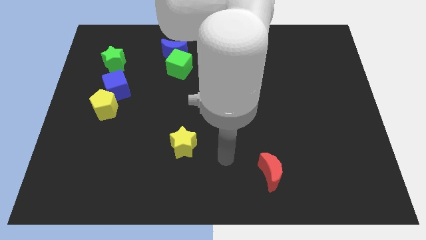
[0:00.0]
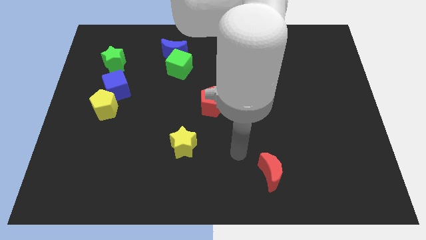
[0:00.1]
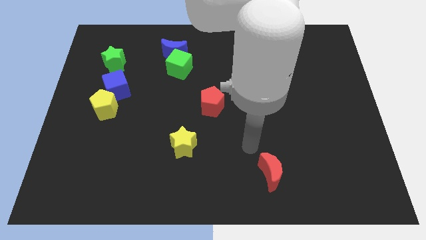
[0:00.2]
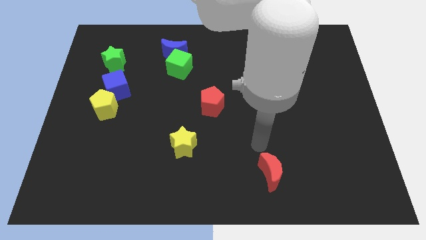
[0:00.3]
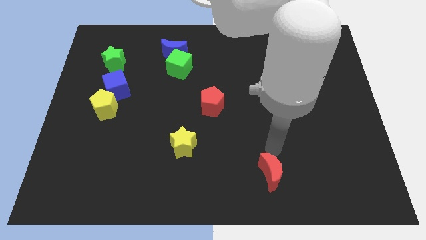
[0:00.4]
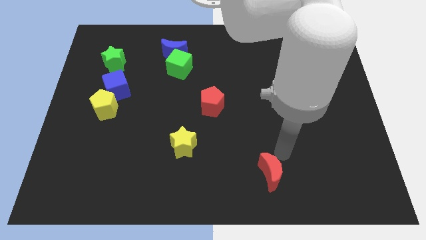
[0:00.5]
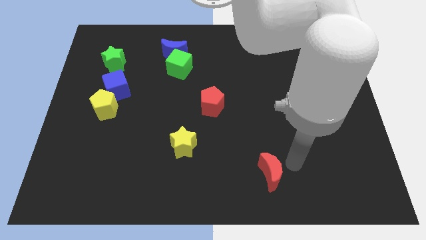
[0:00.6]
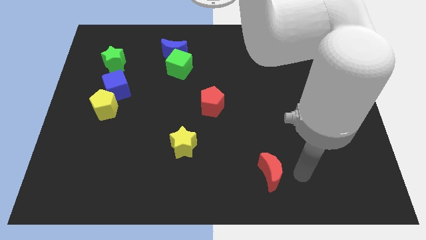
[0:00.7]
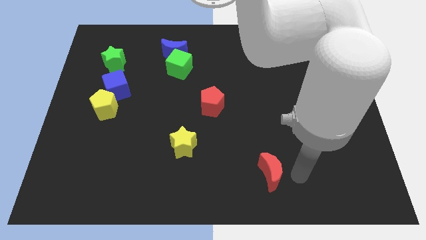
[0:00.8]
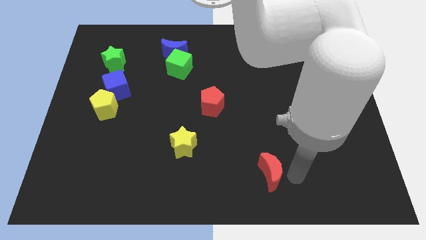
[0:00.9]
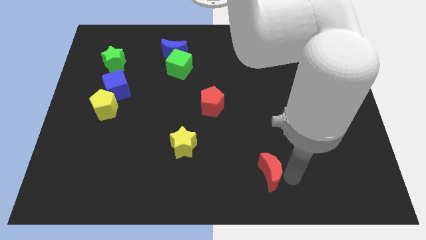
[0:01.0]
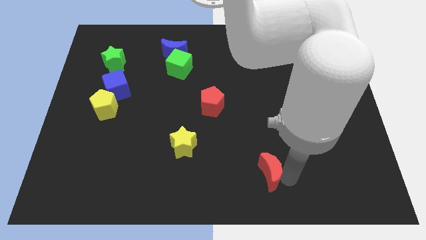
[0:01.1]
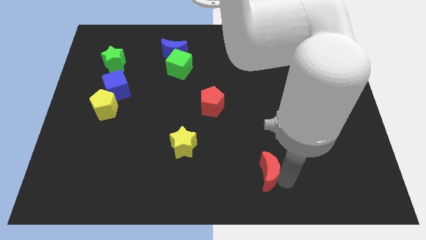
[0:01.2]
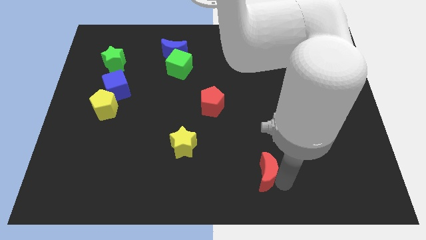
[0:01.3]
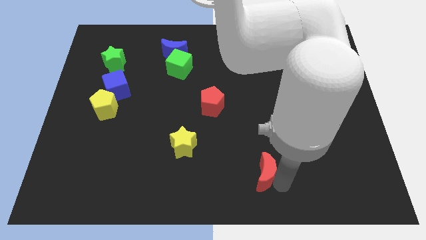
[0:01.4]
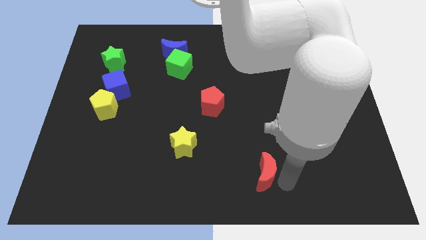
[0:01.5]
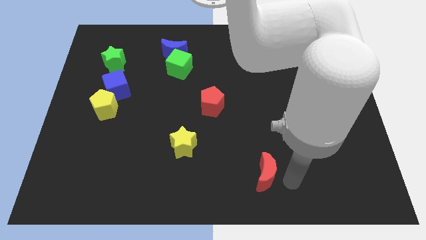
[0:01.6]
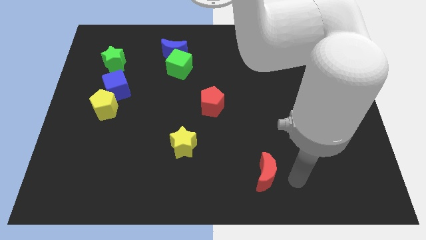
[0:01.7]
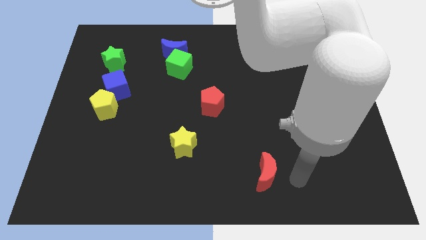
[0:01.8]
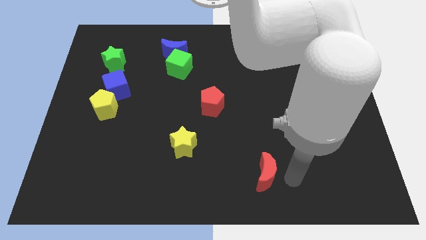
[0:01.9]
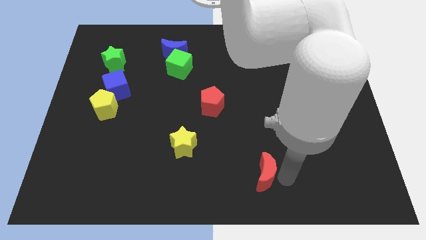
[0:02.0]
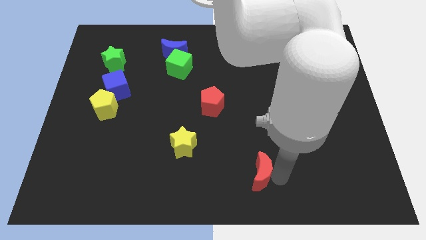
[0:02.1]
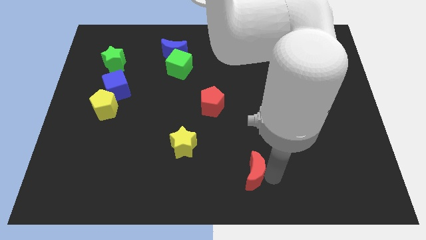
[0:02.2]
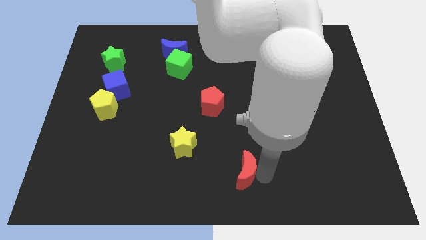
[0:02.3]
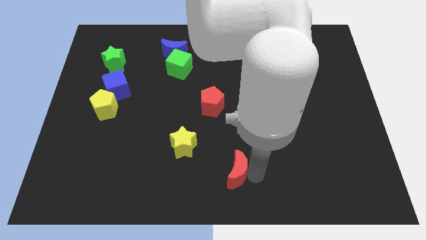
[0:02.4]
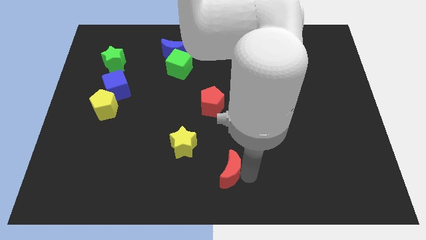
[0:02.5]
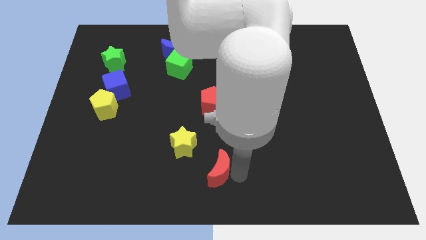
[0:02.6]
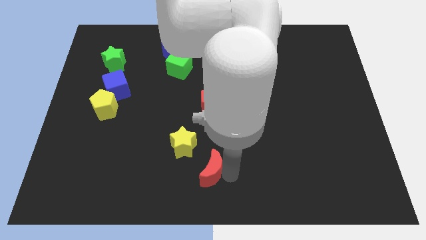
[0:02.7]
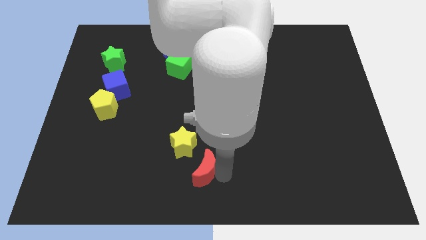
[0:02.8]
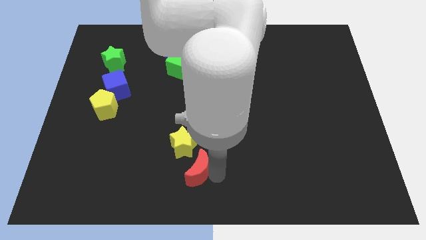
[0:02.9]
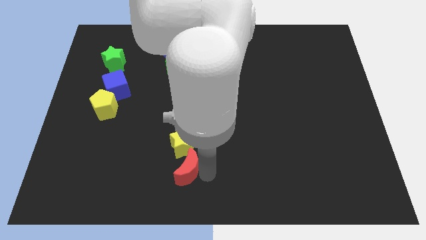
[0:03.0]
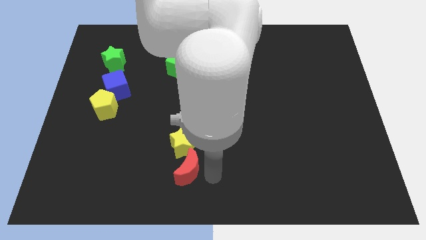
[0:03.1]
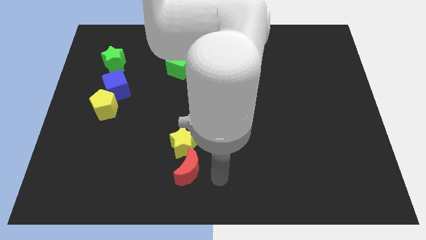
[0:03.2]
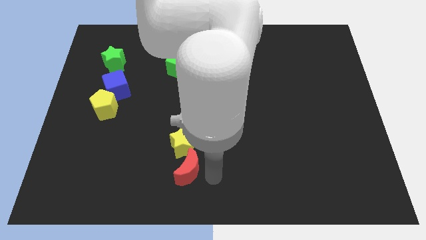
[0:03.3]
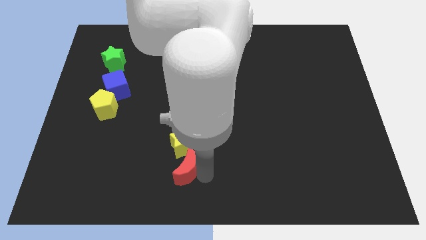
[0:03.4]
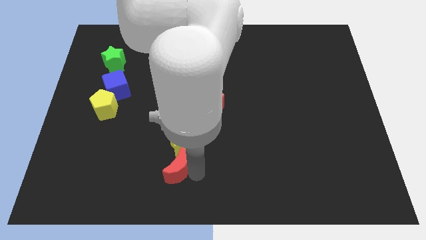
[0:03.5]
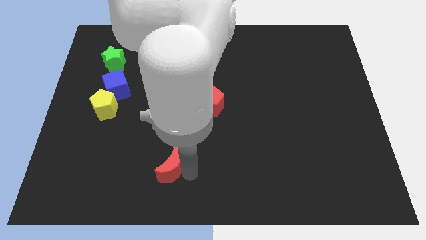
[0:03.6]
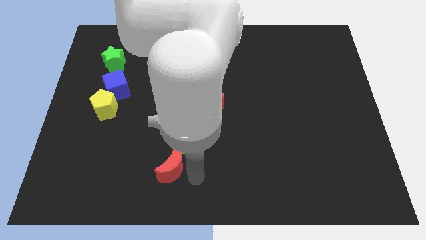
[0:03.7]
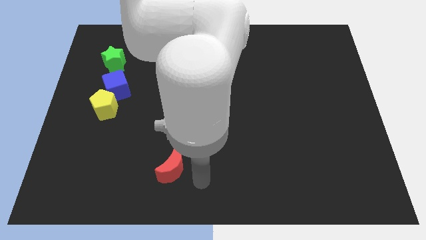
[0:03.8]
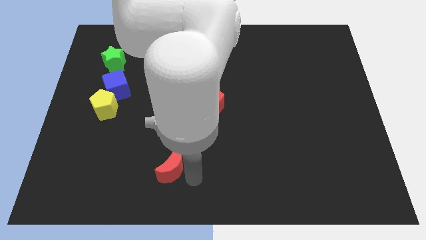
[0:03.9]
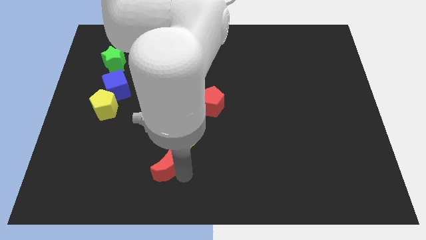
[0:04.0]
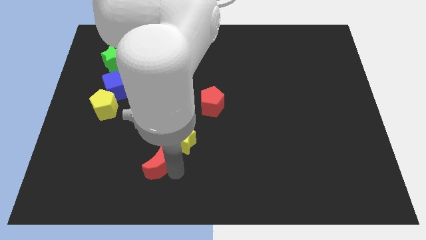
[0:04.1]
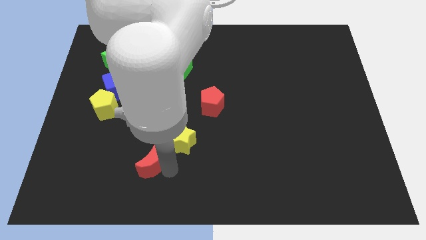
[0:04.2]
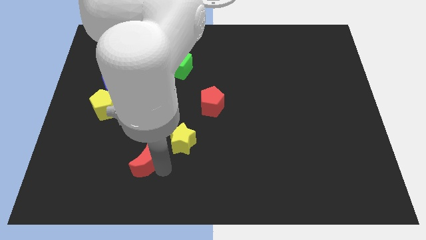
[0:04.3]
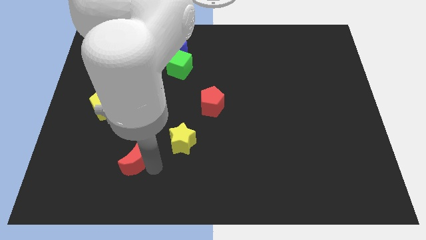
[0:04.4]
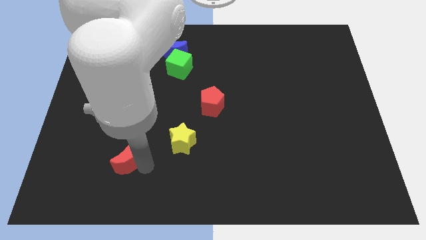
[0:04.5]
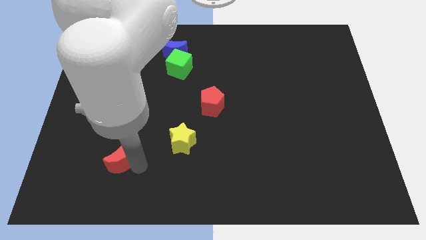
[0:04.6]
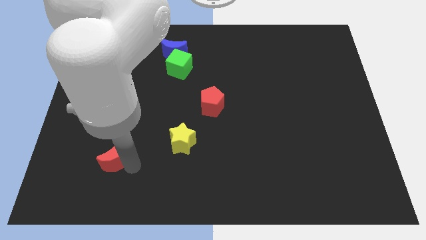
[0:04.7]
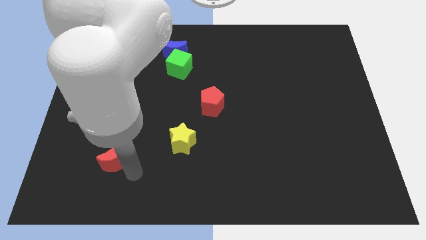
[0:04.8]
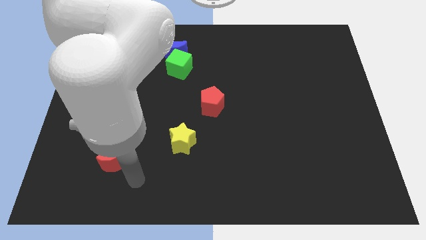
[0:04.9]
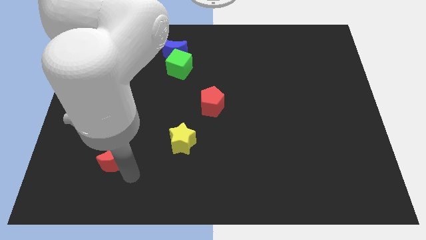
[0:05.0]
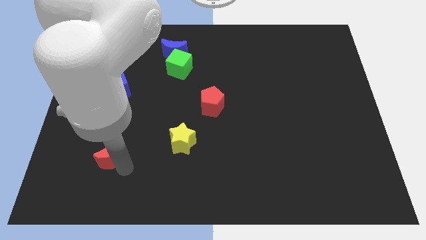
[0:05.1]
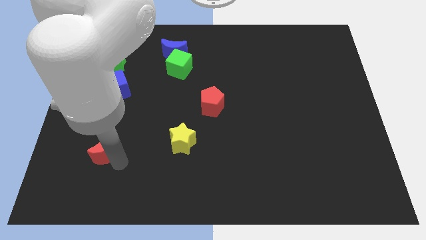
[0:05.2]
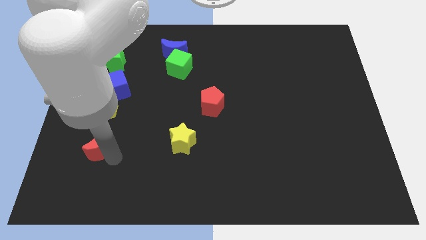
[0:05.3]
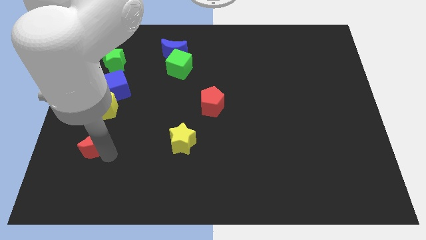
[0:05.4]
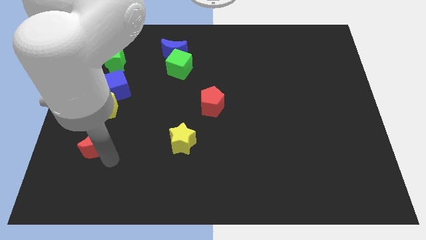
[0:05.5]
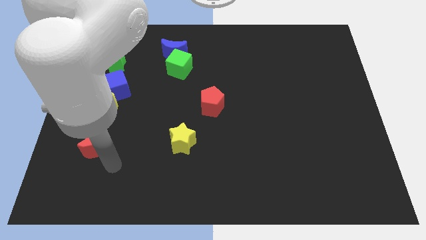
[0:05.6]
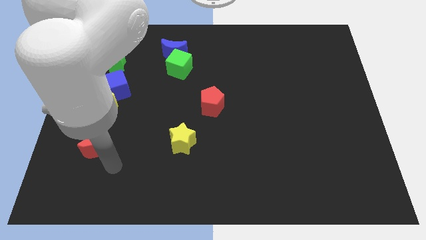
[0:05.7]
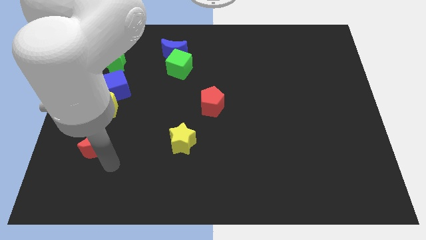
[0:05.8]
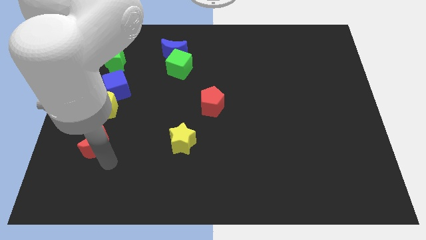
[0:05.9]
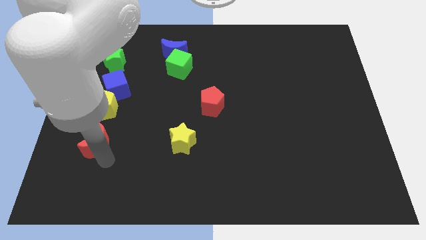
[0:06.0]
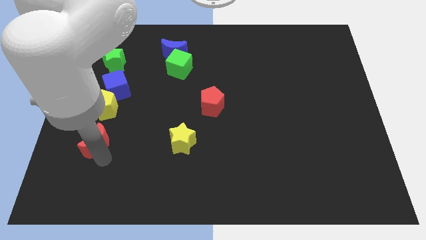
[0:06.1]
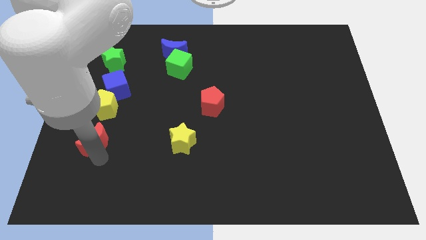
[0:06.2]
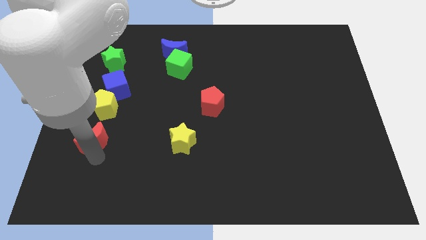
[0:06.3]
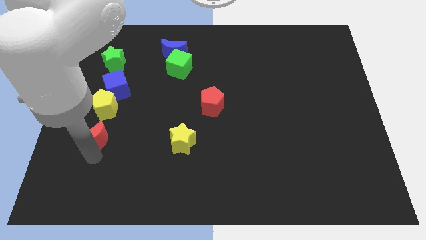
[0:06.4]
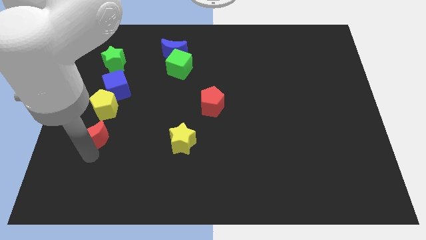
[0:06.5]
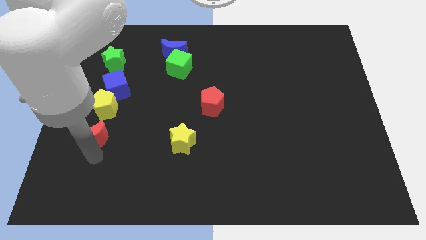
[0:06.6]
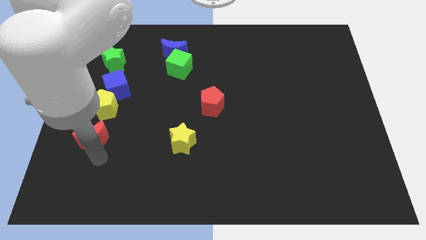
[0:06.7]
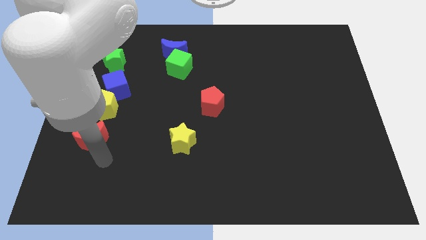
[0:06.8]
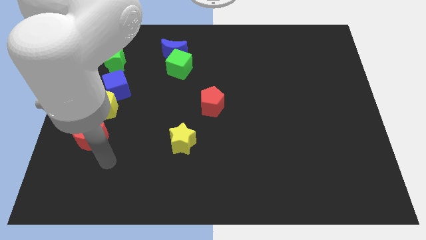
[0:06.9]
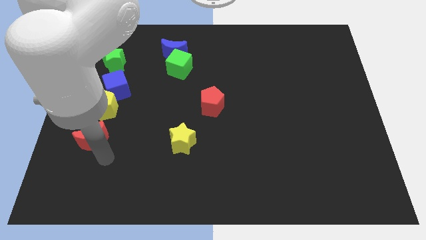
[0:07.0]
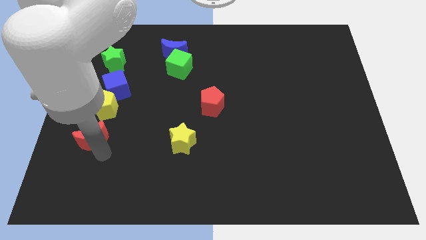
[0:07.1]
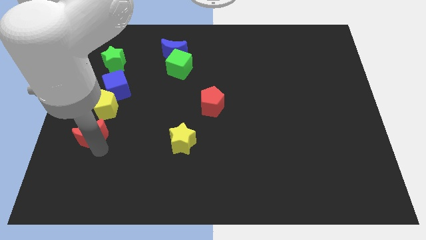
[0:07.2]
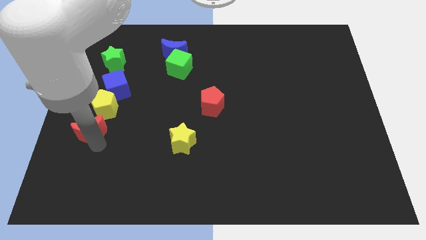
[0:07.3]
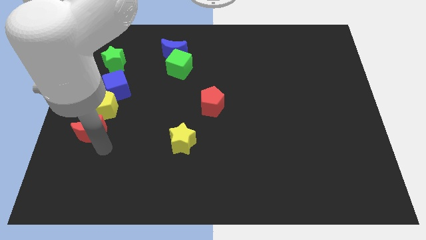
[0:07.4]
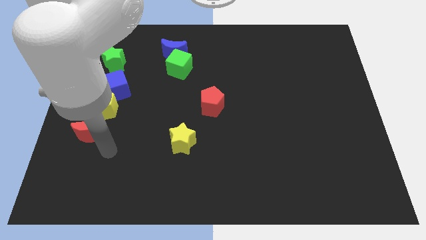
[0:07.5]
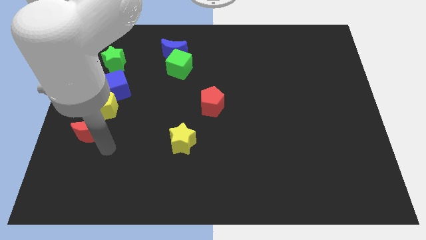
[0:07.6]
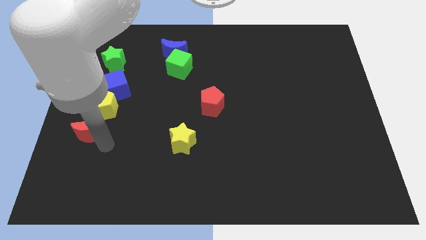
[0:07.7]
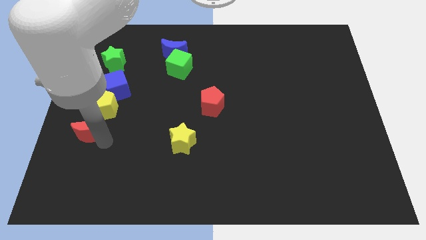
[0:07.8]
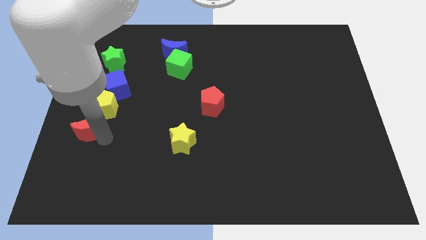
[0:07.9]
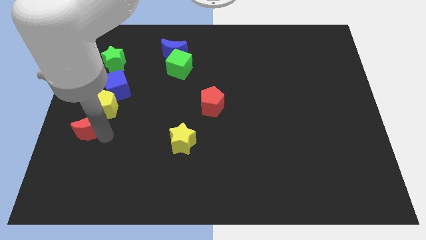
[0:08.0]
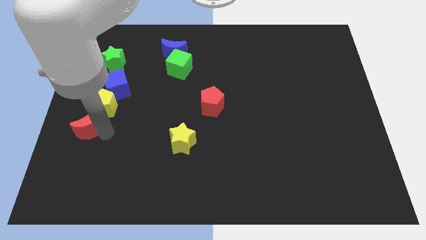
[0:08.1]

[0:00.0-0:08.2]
push the red moon to the left side
